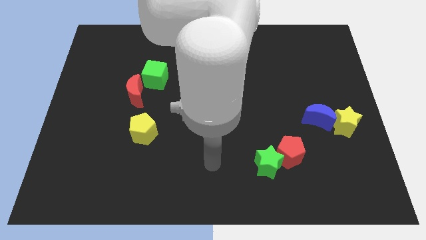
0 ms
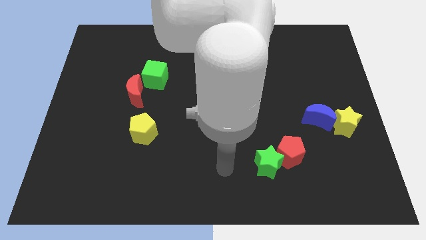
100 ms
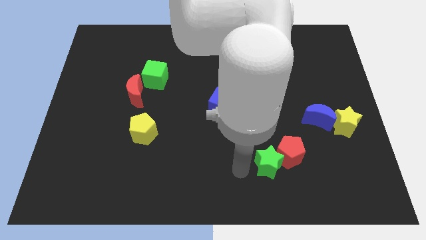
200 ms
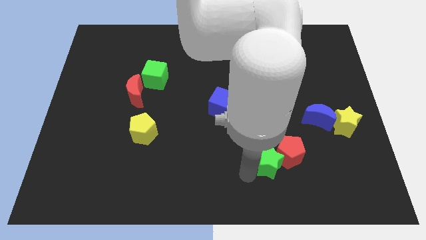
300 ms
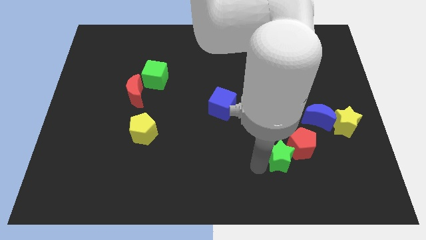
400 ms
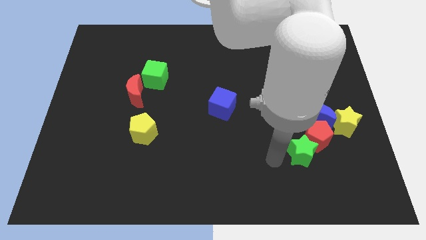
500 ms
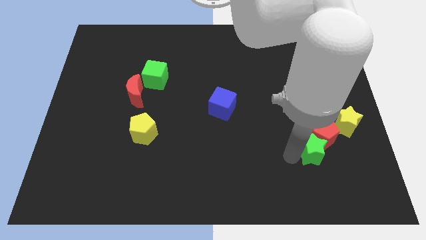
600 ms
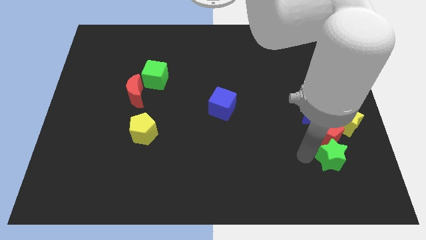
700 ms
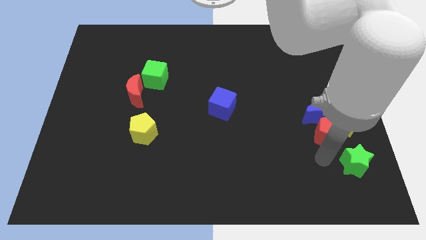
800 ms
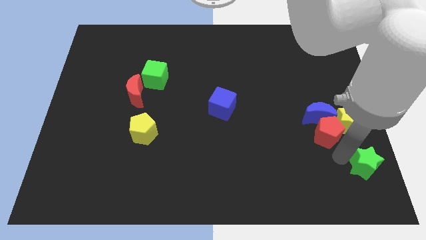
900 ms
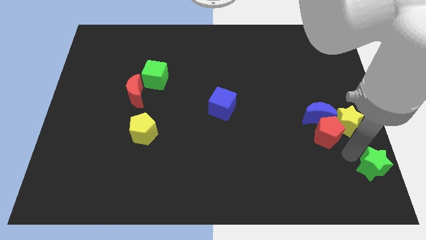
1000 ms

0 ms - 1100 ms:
pull the red pentagon apart from the green star

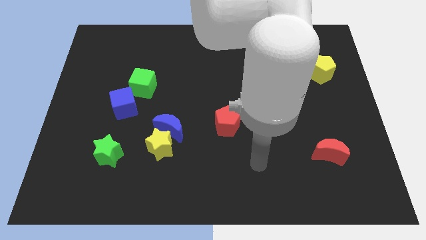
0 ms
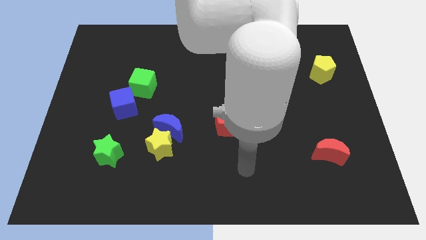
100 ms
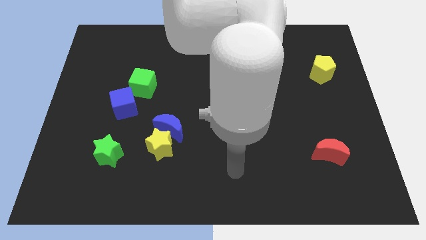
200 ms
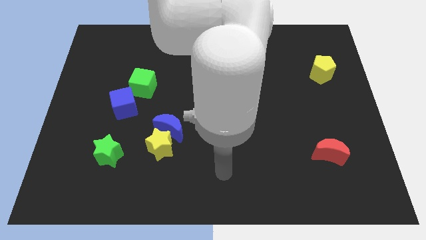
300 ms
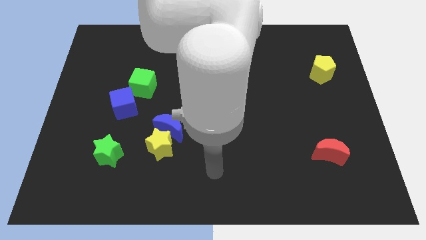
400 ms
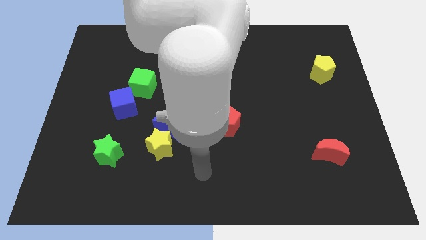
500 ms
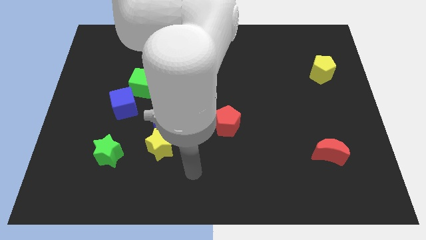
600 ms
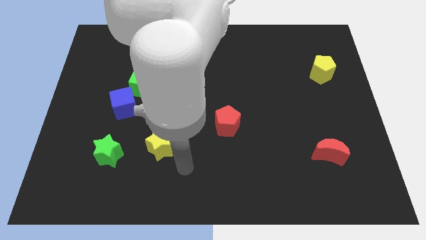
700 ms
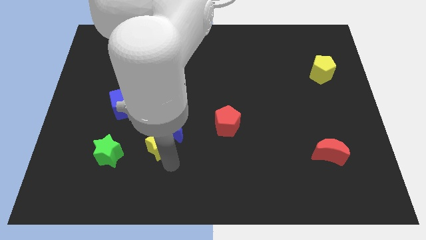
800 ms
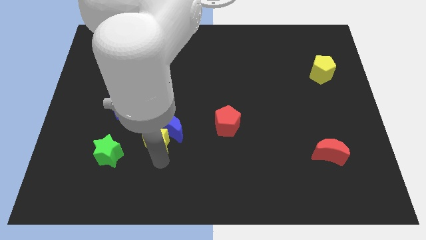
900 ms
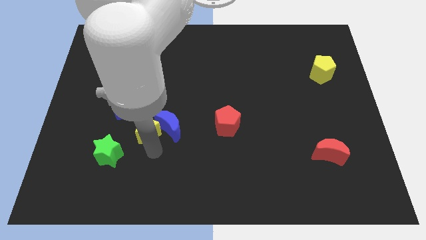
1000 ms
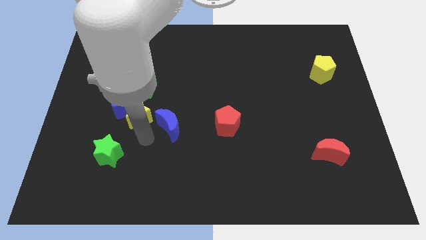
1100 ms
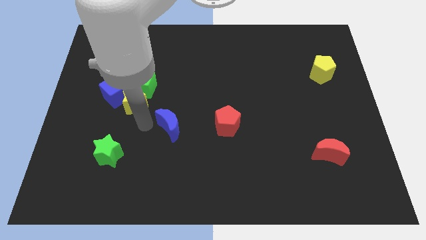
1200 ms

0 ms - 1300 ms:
separate the blue moon from the yellow star

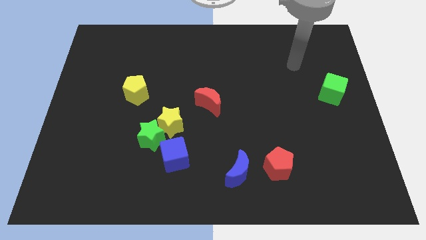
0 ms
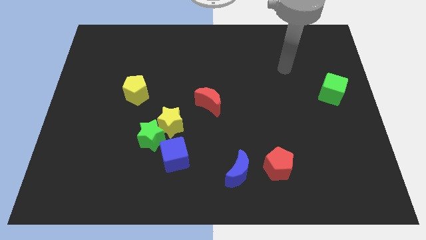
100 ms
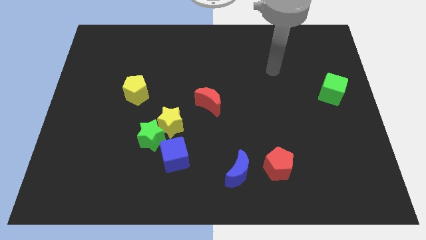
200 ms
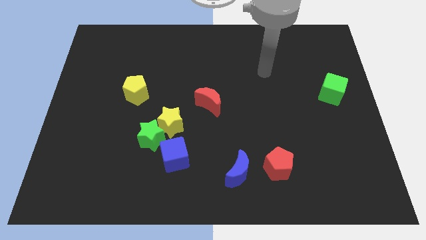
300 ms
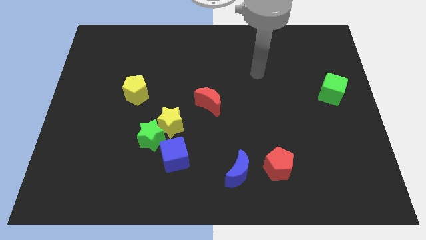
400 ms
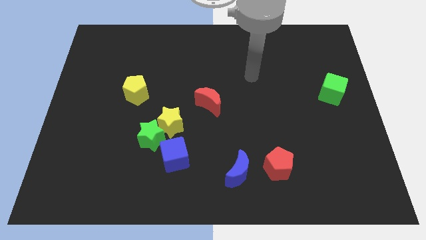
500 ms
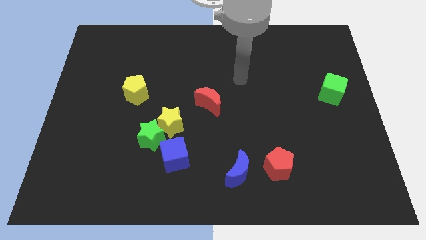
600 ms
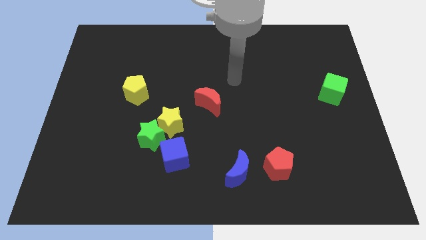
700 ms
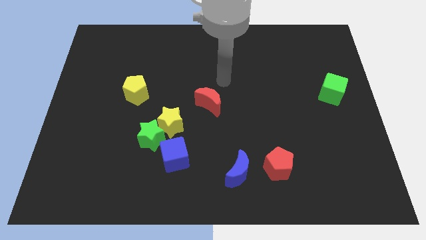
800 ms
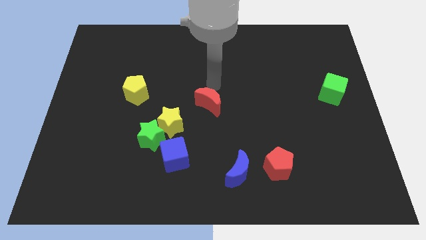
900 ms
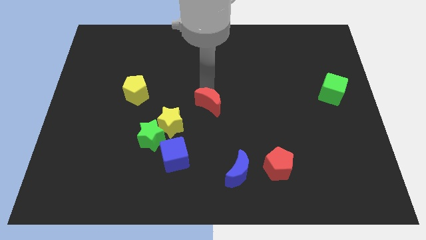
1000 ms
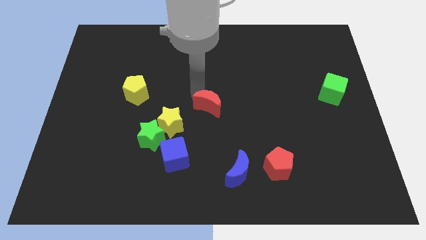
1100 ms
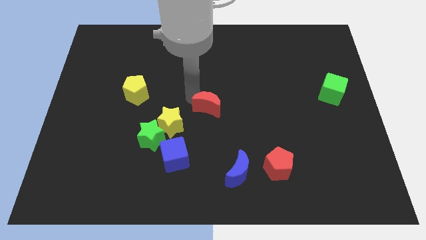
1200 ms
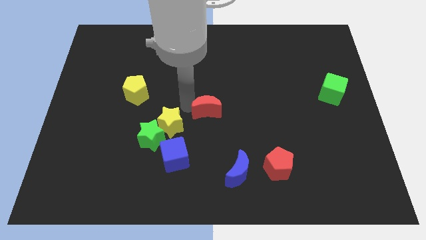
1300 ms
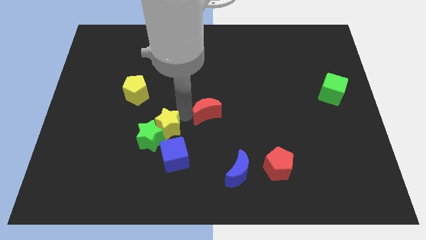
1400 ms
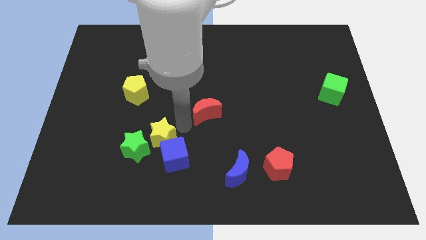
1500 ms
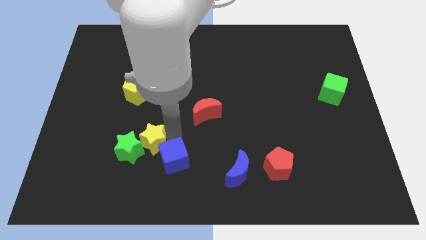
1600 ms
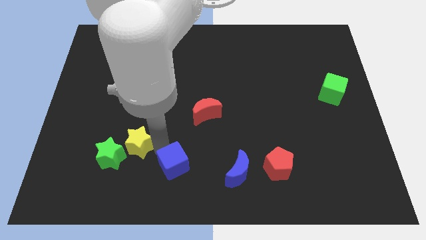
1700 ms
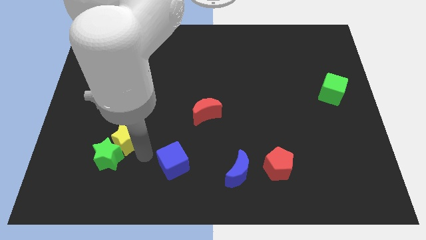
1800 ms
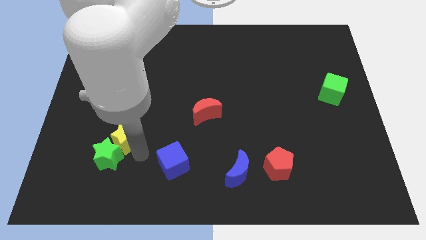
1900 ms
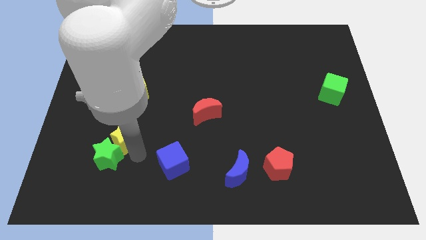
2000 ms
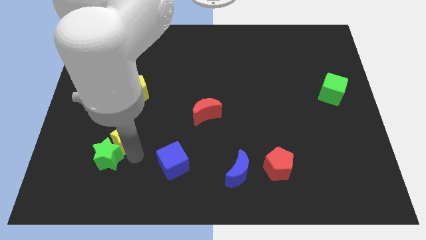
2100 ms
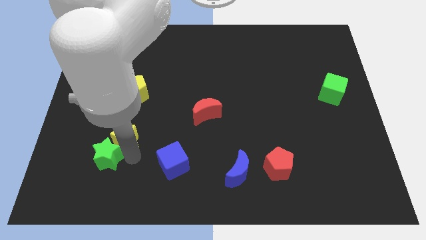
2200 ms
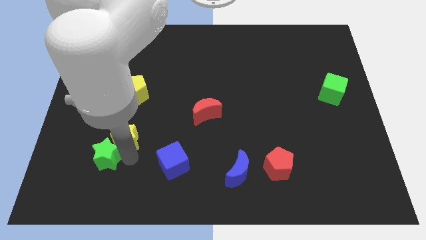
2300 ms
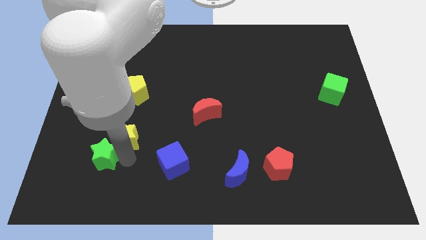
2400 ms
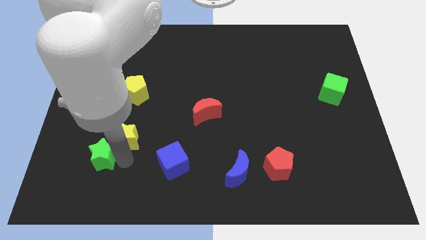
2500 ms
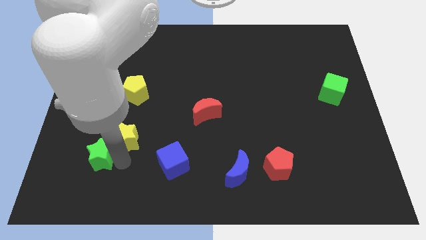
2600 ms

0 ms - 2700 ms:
pull the green star apart from the yellow star and blue cube

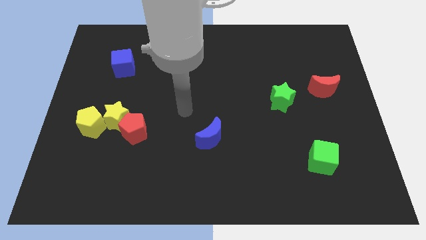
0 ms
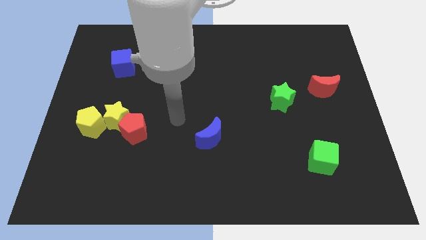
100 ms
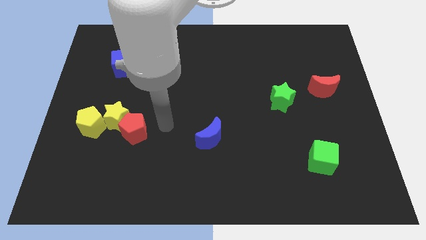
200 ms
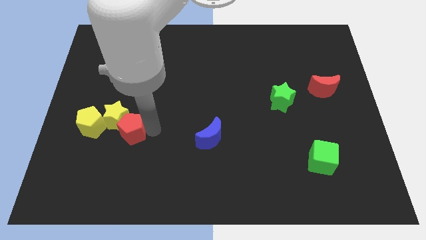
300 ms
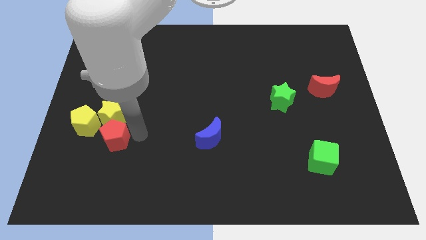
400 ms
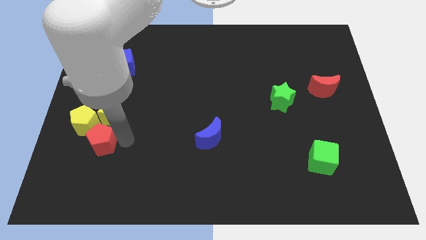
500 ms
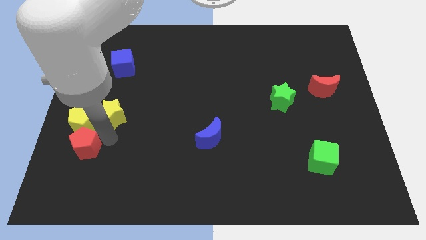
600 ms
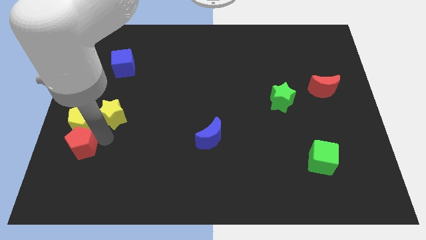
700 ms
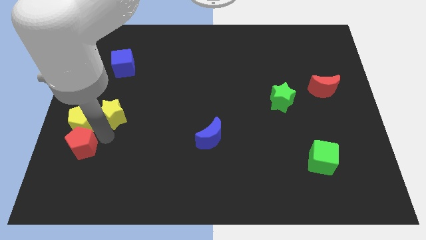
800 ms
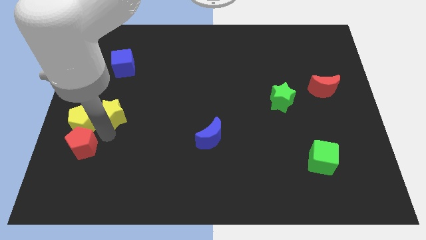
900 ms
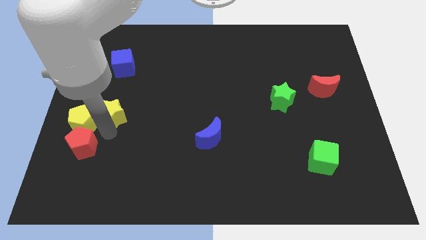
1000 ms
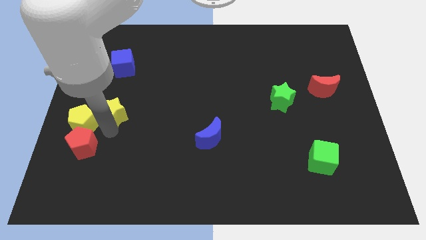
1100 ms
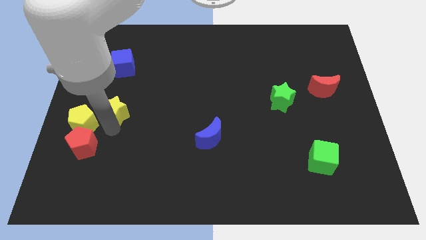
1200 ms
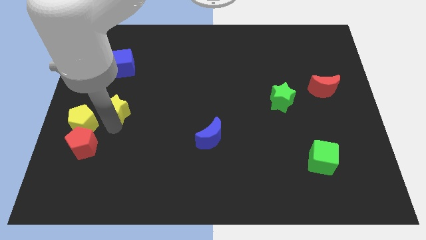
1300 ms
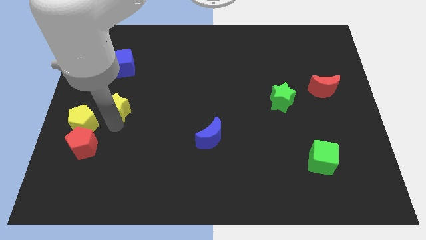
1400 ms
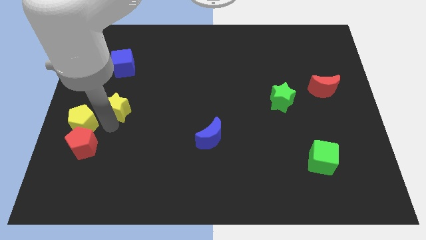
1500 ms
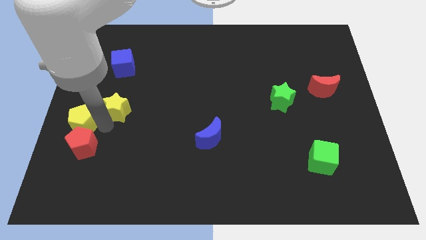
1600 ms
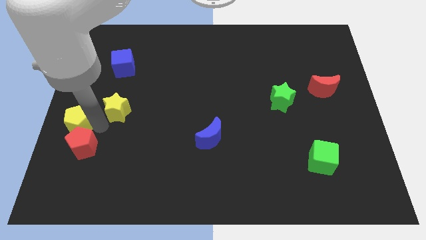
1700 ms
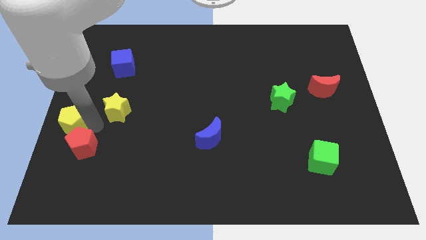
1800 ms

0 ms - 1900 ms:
pull the yellow star apart from the red pentagon and yellow pentagon

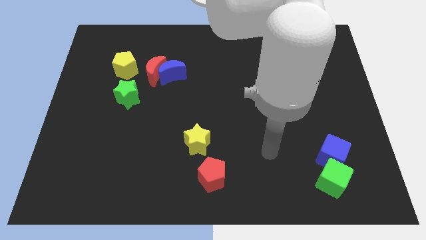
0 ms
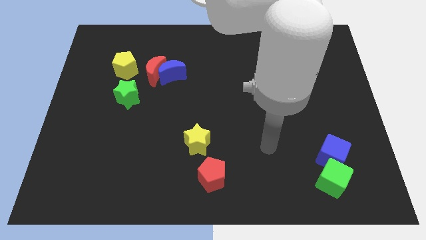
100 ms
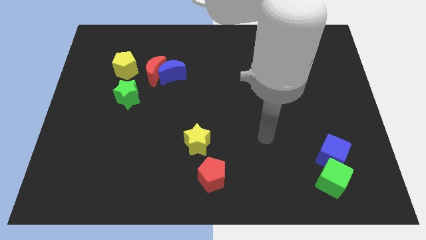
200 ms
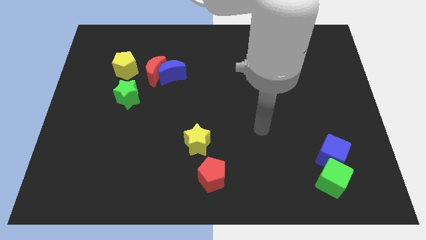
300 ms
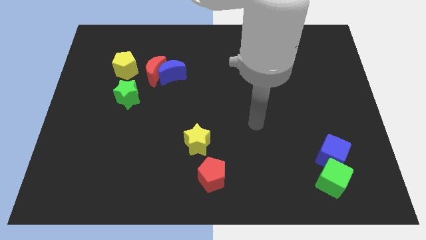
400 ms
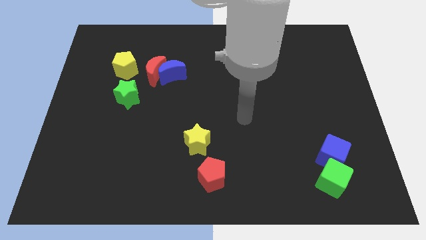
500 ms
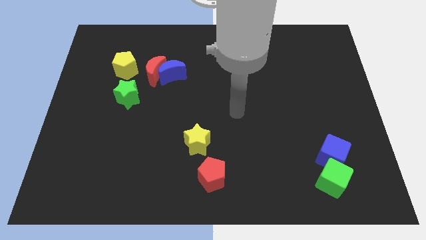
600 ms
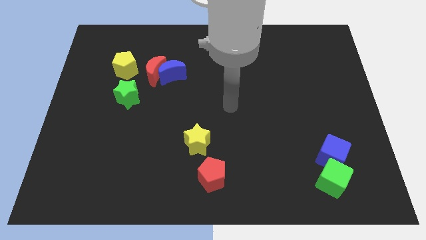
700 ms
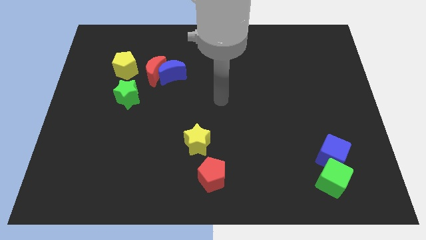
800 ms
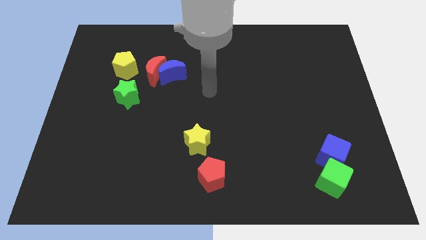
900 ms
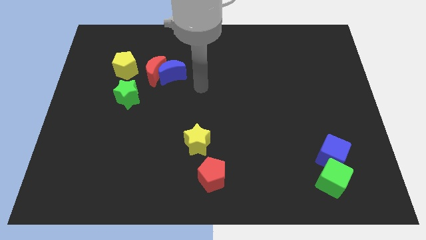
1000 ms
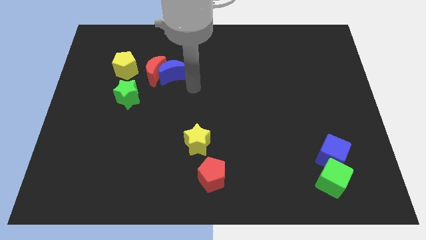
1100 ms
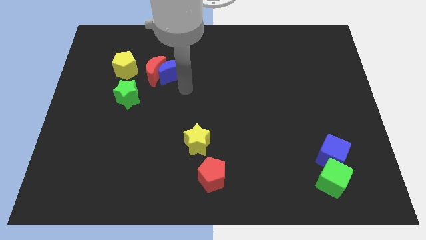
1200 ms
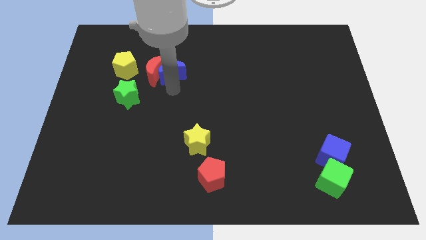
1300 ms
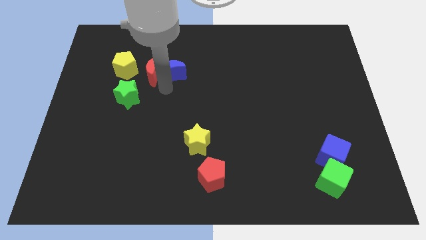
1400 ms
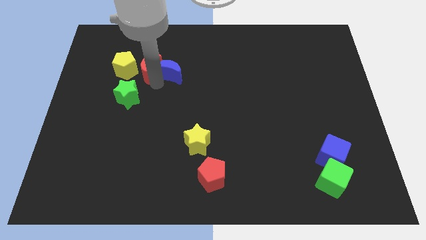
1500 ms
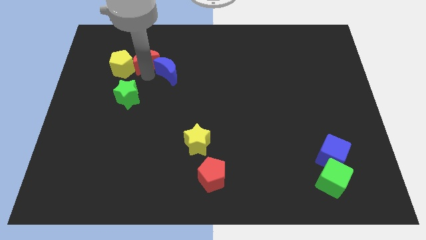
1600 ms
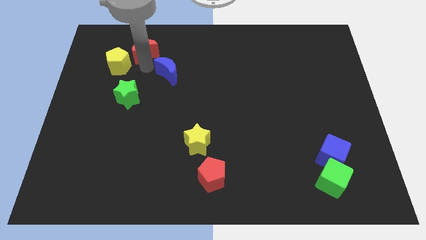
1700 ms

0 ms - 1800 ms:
separate the blue moon from the red moon

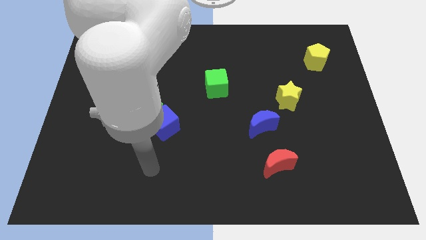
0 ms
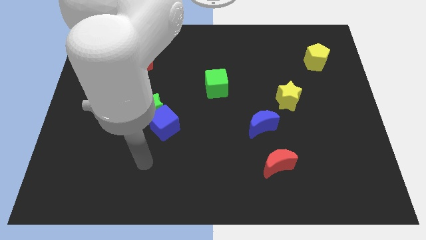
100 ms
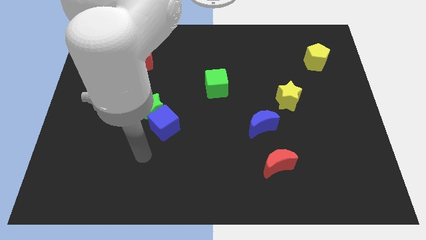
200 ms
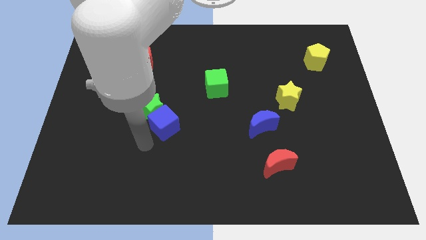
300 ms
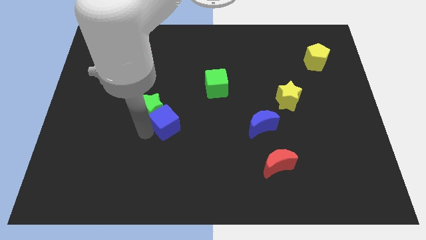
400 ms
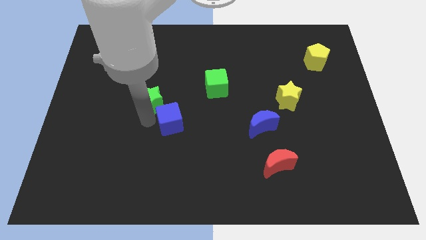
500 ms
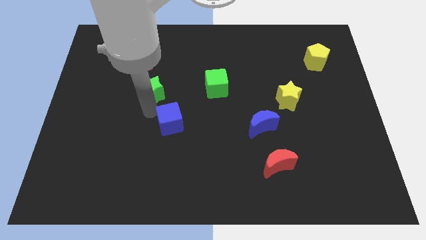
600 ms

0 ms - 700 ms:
separate the blue cube from the green star
